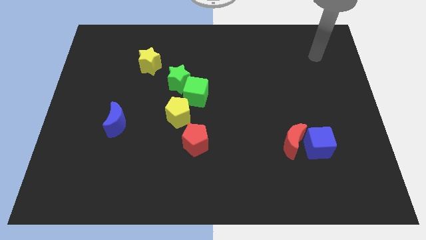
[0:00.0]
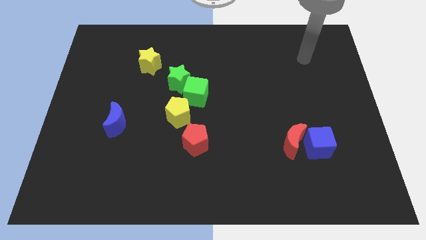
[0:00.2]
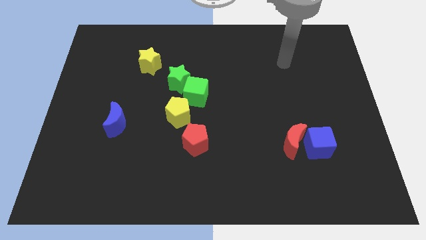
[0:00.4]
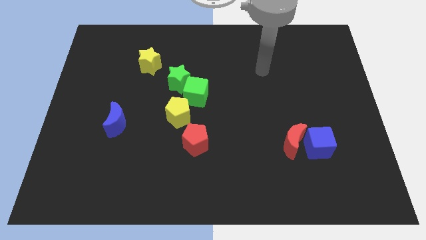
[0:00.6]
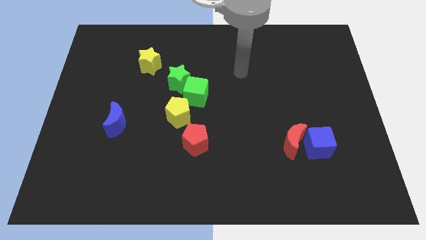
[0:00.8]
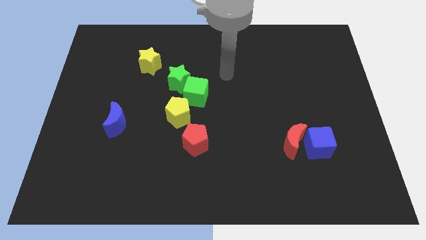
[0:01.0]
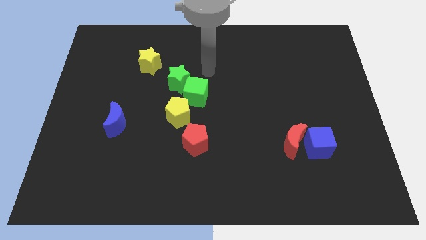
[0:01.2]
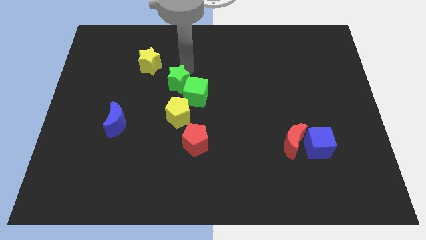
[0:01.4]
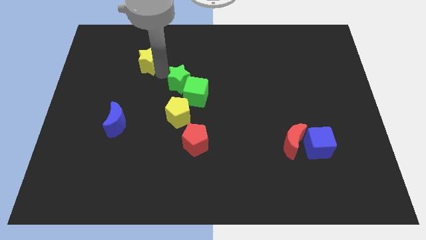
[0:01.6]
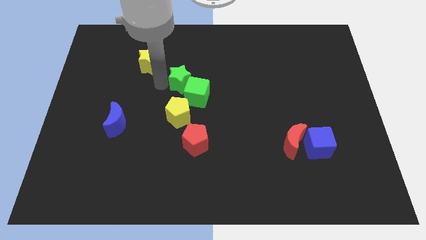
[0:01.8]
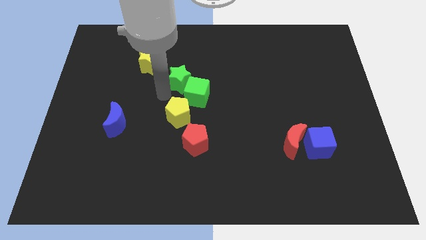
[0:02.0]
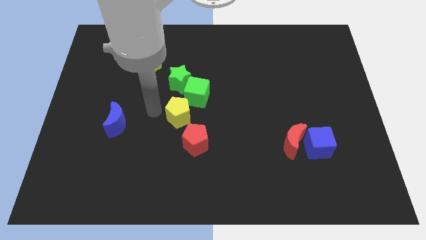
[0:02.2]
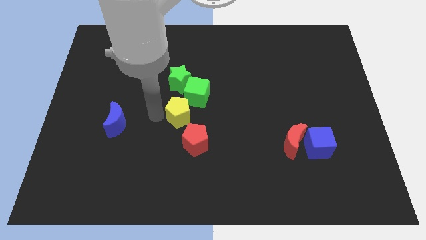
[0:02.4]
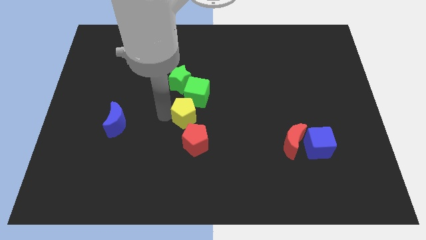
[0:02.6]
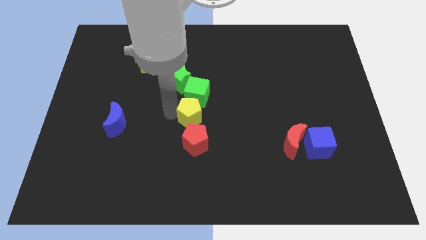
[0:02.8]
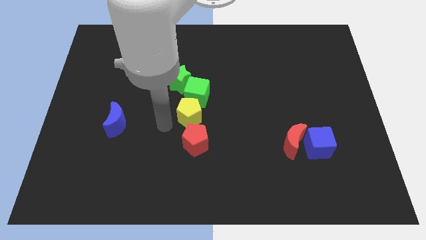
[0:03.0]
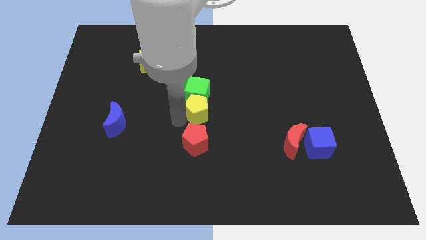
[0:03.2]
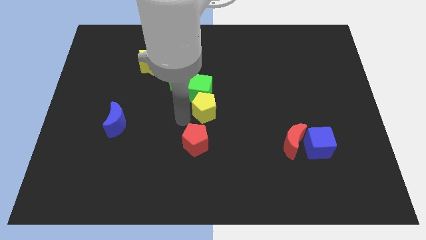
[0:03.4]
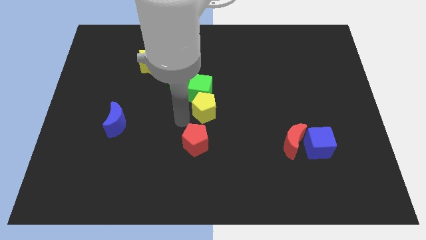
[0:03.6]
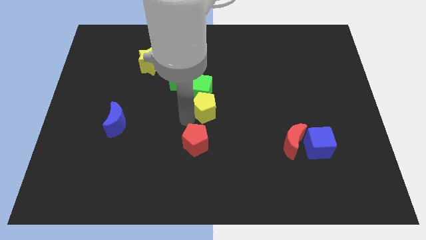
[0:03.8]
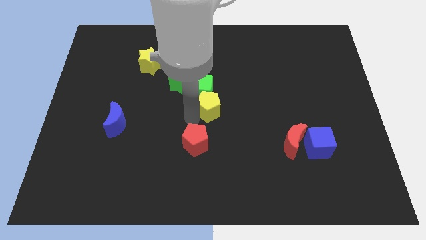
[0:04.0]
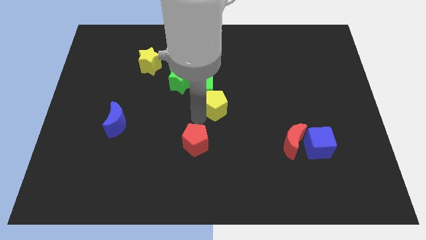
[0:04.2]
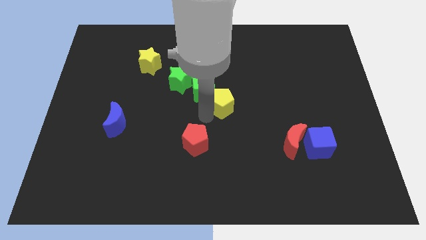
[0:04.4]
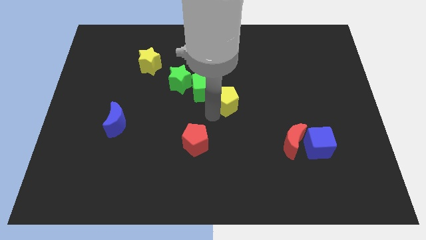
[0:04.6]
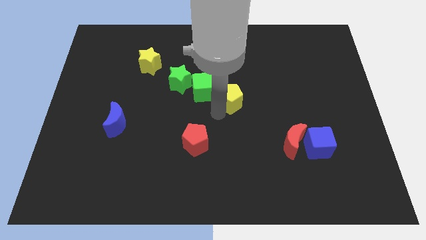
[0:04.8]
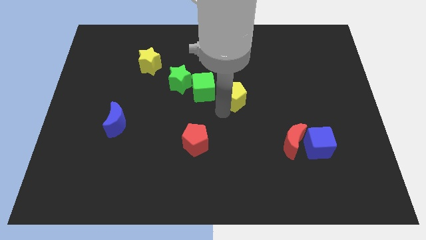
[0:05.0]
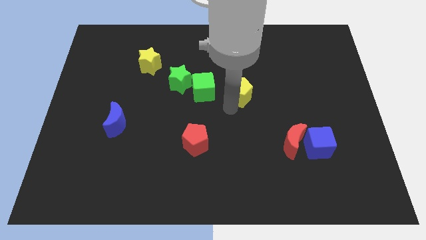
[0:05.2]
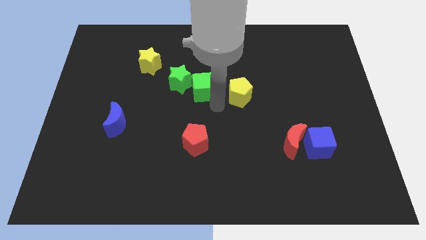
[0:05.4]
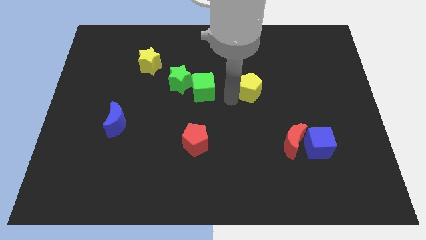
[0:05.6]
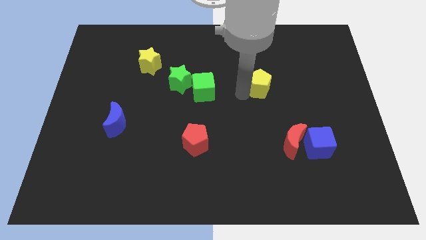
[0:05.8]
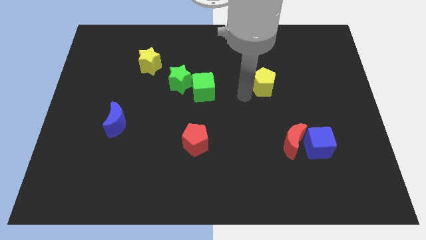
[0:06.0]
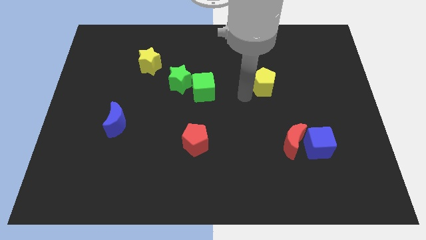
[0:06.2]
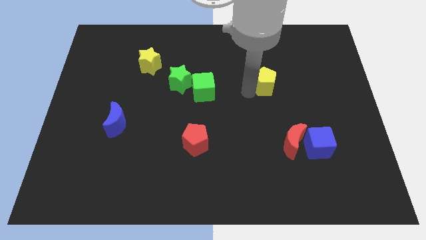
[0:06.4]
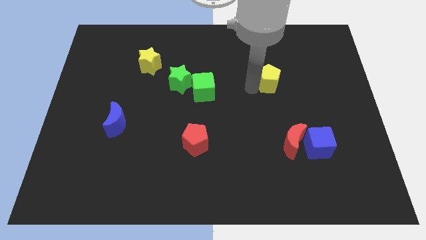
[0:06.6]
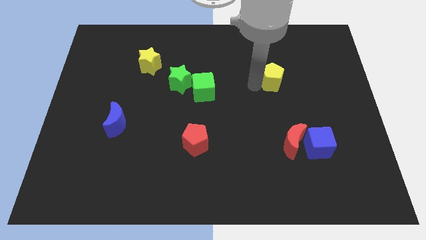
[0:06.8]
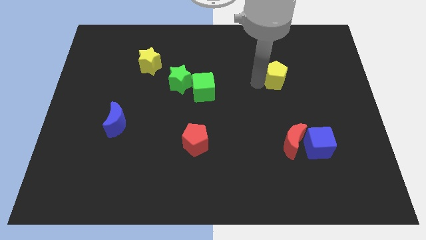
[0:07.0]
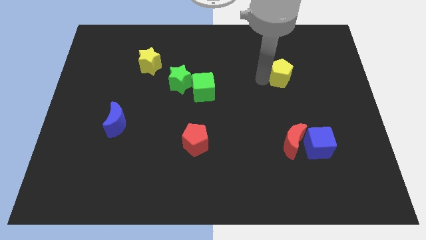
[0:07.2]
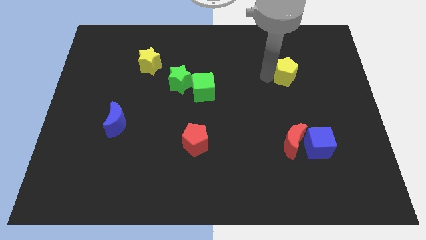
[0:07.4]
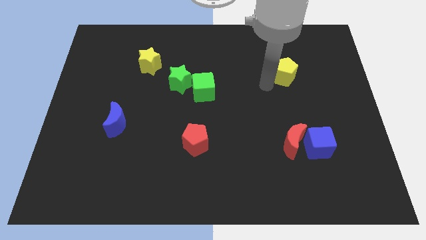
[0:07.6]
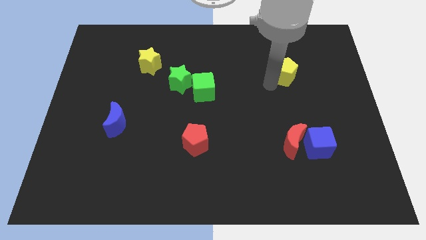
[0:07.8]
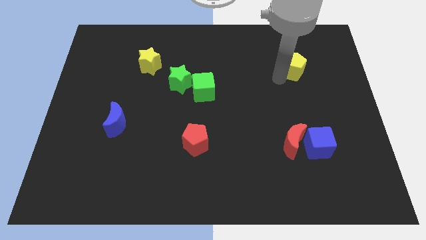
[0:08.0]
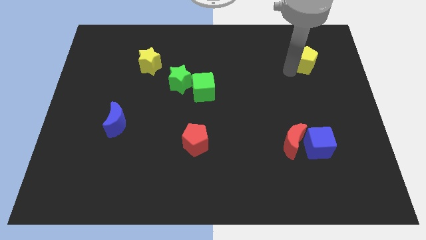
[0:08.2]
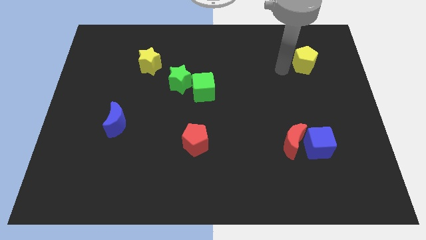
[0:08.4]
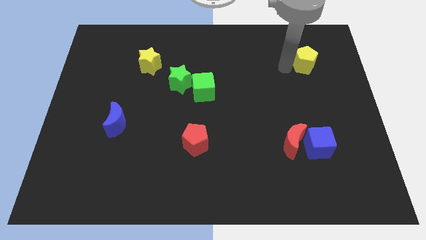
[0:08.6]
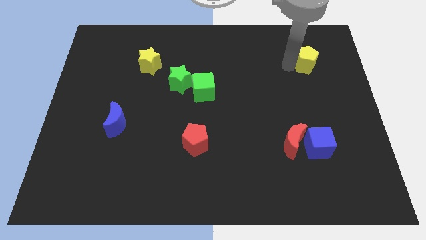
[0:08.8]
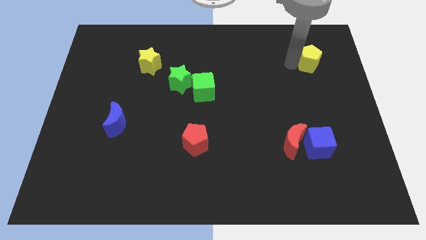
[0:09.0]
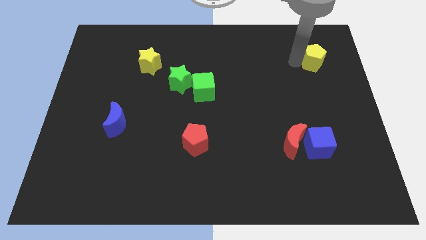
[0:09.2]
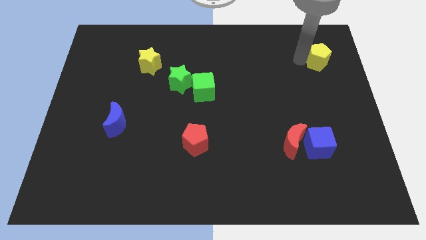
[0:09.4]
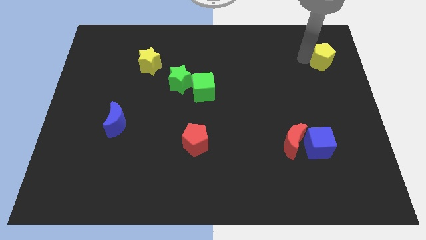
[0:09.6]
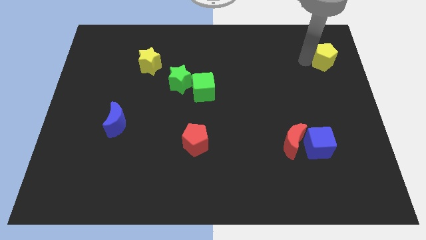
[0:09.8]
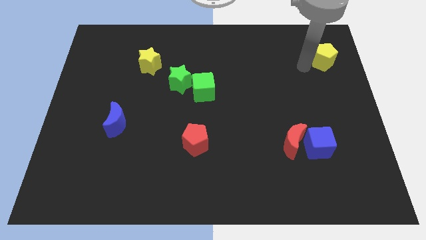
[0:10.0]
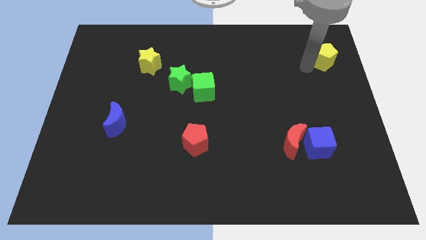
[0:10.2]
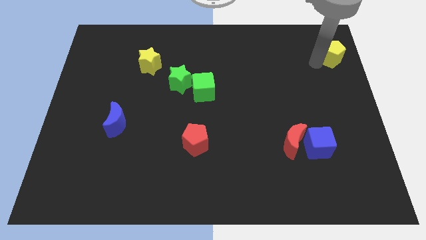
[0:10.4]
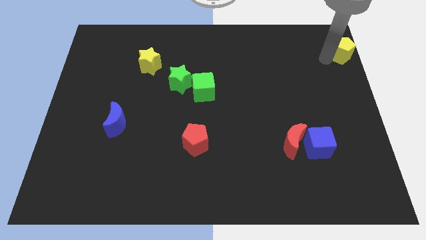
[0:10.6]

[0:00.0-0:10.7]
push the yellow pentagon to the upper right corner

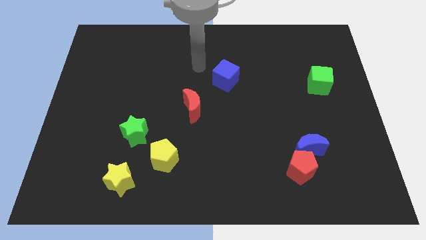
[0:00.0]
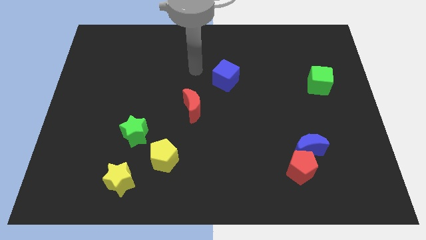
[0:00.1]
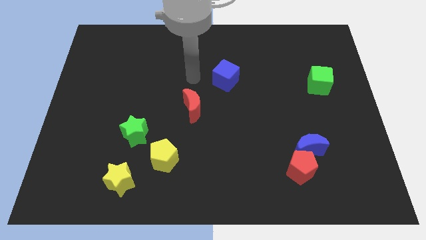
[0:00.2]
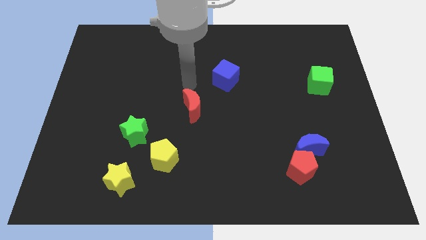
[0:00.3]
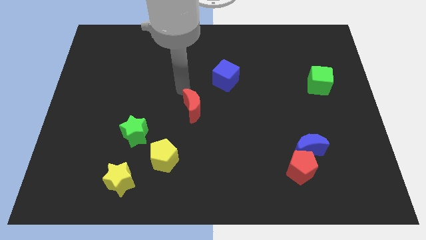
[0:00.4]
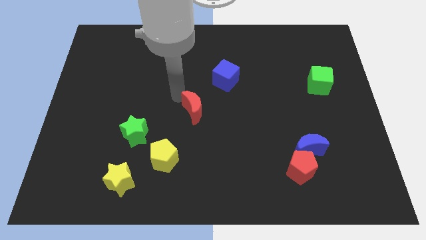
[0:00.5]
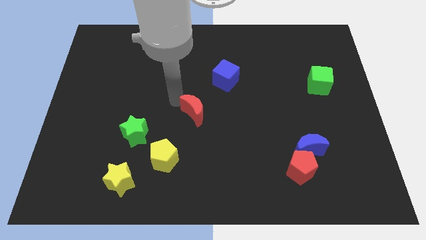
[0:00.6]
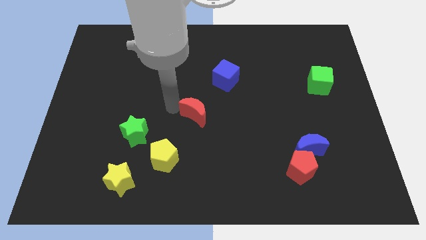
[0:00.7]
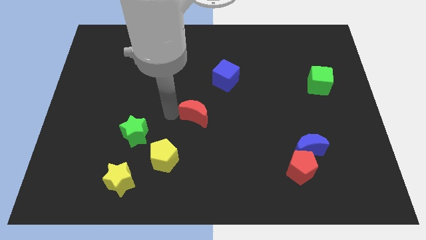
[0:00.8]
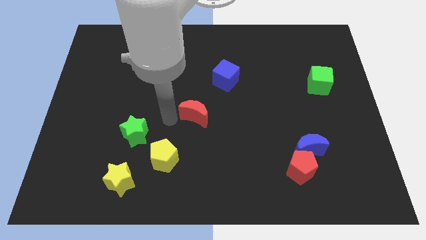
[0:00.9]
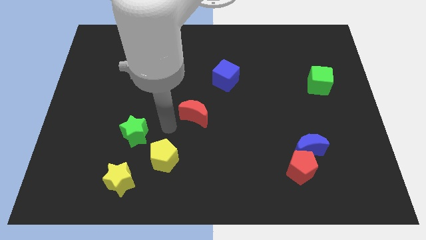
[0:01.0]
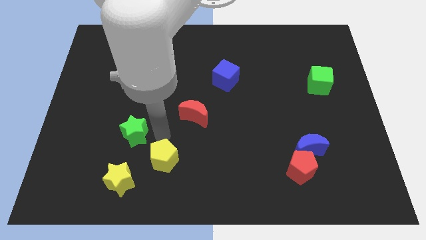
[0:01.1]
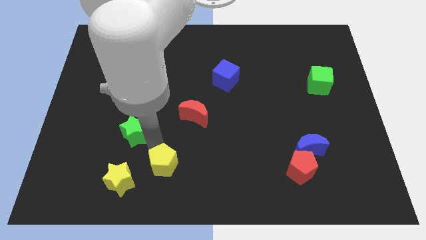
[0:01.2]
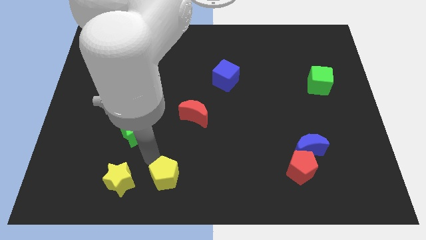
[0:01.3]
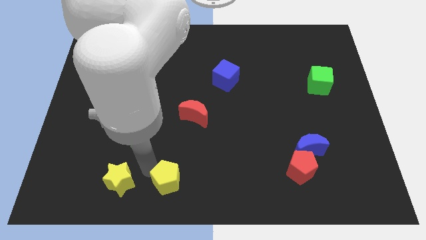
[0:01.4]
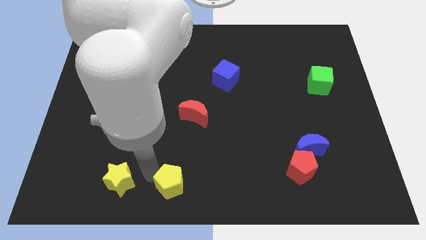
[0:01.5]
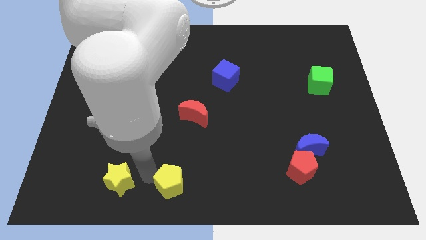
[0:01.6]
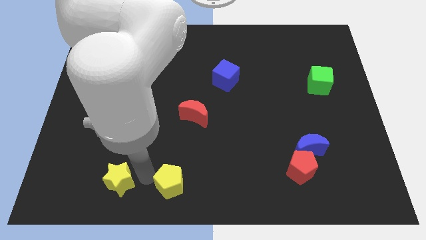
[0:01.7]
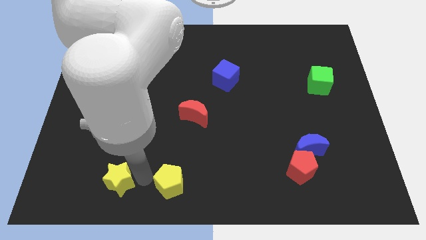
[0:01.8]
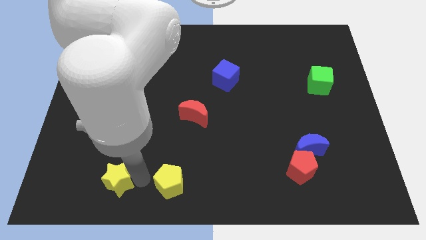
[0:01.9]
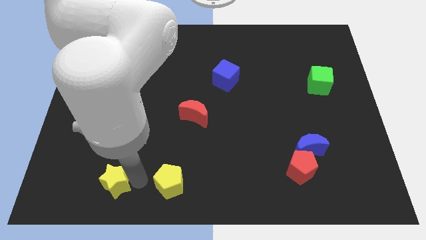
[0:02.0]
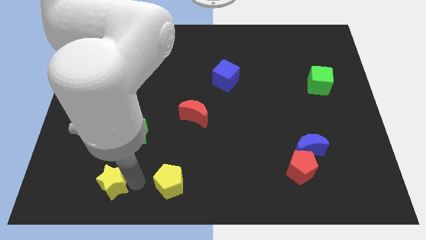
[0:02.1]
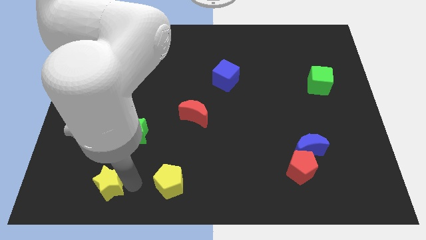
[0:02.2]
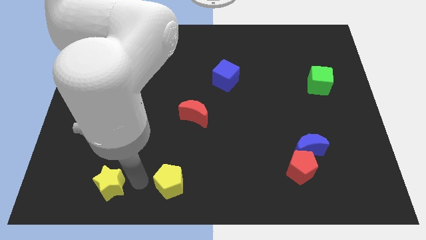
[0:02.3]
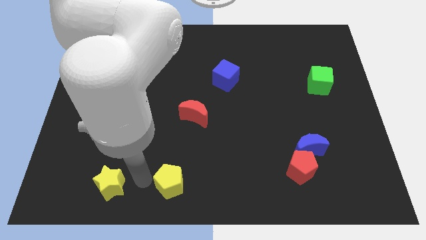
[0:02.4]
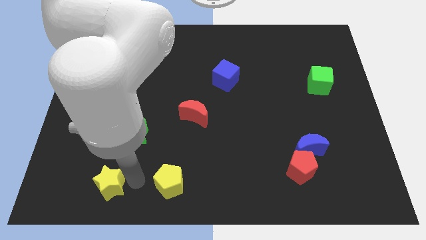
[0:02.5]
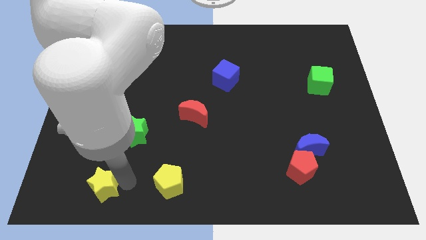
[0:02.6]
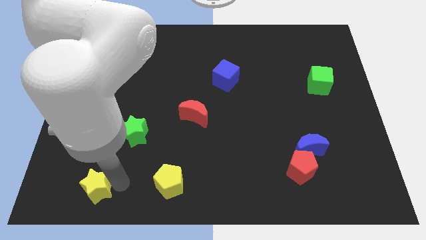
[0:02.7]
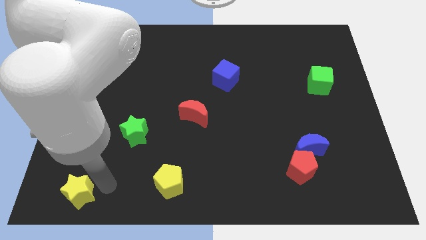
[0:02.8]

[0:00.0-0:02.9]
put the yellow star to the lower left corner
